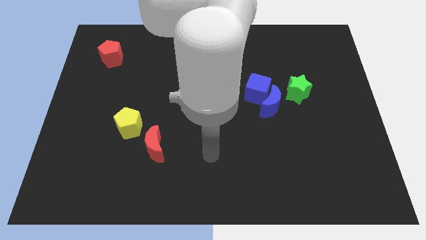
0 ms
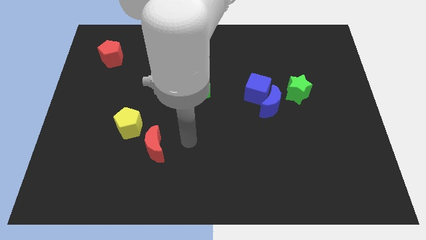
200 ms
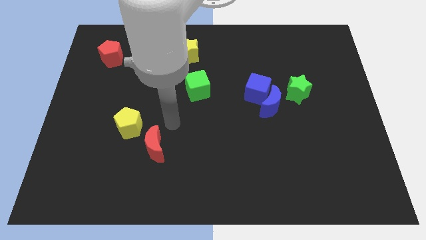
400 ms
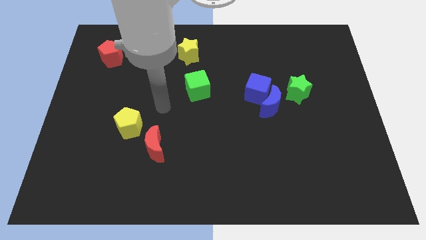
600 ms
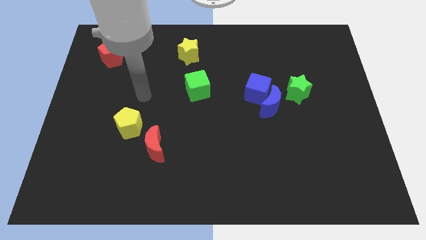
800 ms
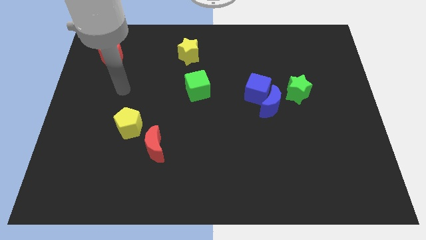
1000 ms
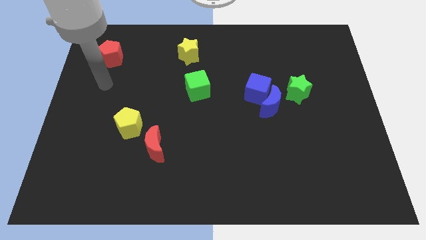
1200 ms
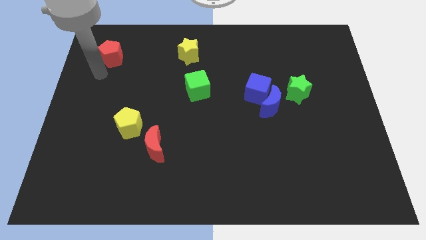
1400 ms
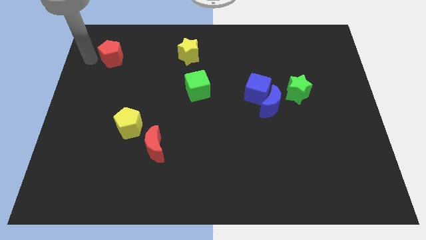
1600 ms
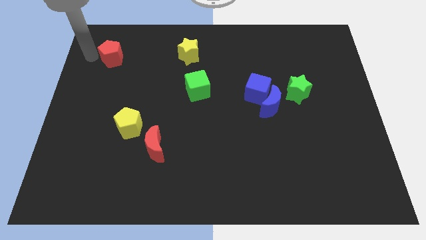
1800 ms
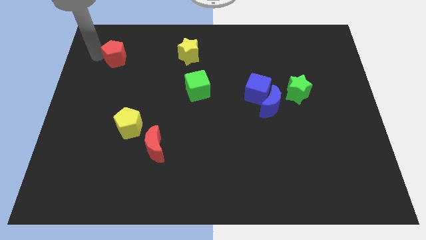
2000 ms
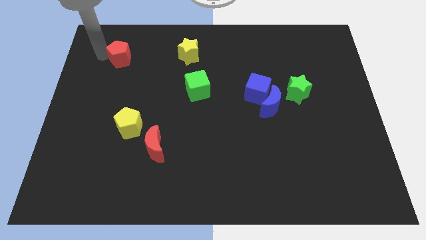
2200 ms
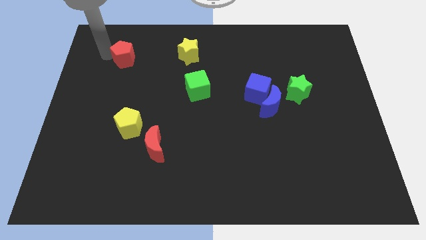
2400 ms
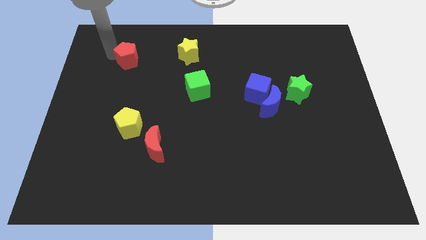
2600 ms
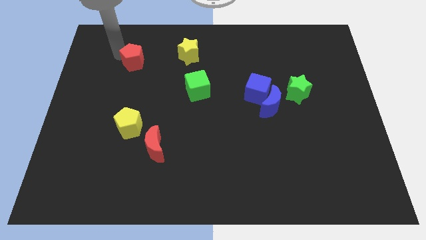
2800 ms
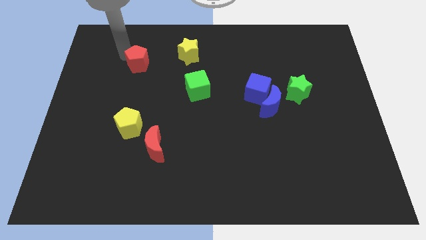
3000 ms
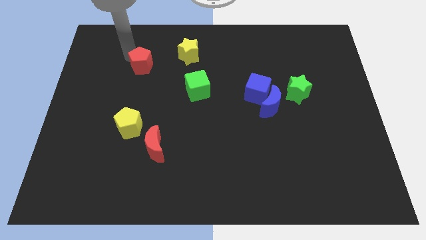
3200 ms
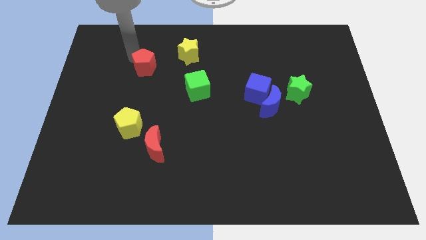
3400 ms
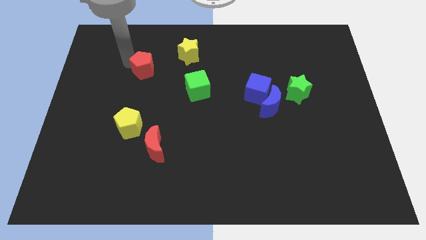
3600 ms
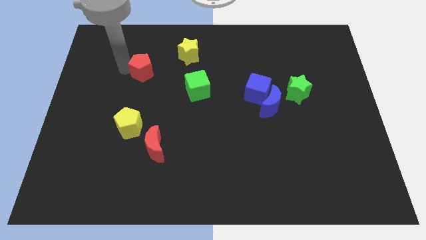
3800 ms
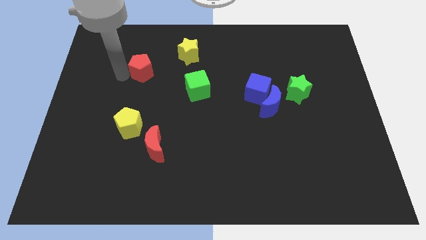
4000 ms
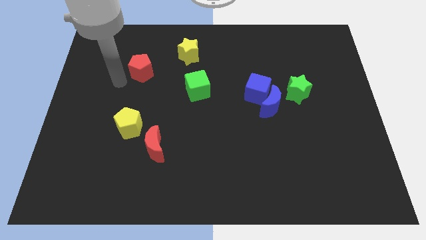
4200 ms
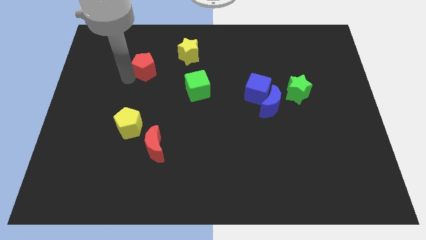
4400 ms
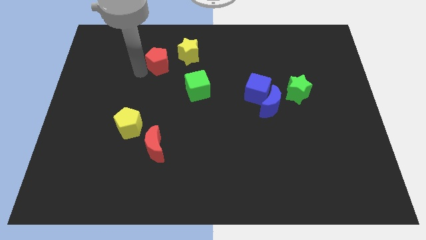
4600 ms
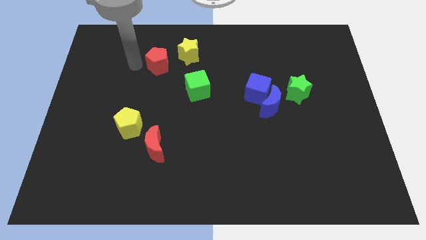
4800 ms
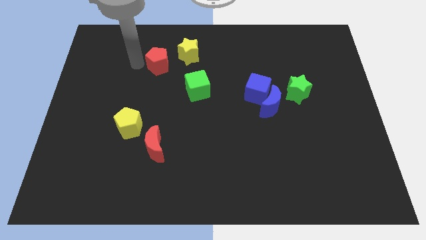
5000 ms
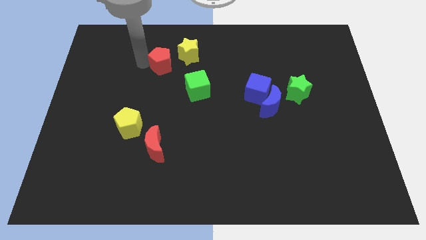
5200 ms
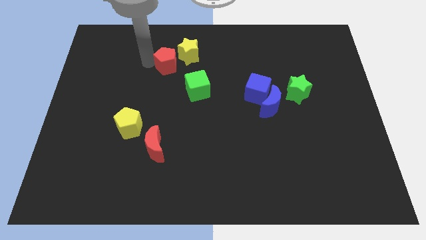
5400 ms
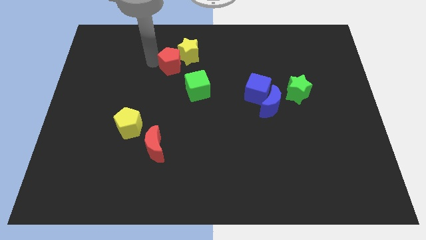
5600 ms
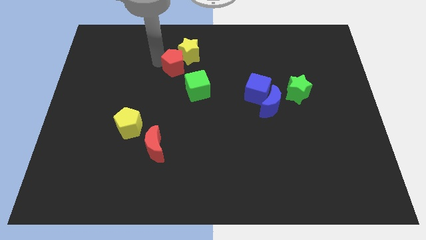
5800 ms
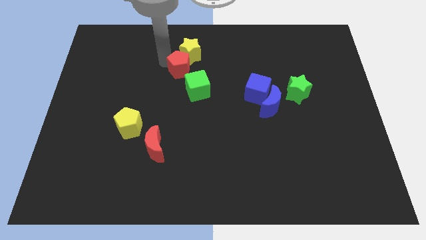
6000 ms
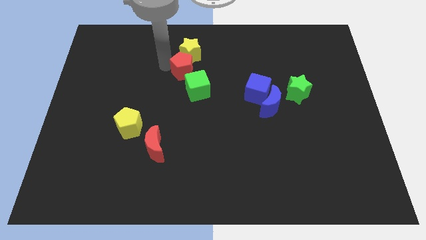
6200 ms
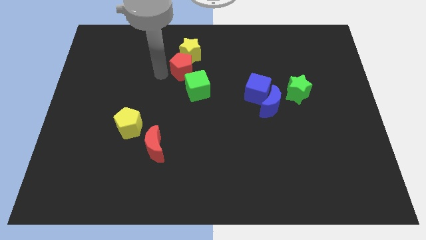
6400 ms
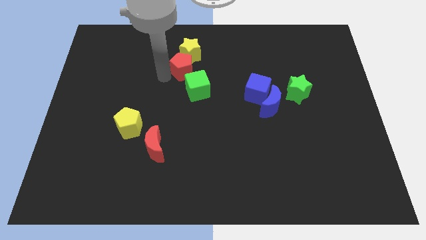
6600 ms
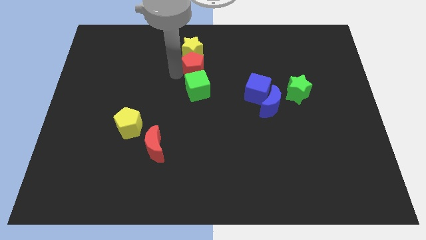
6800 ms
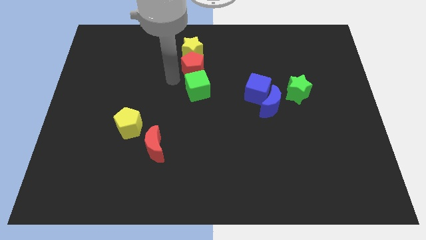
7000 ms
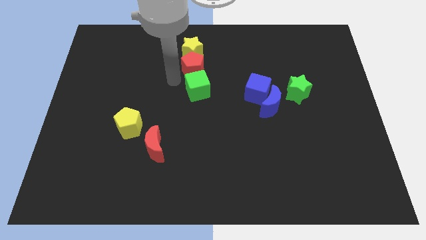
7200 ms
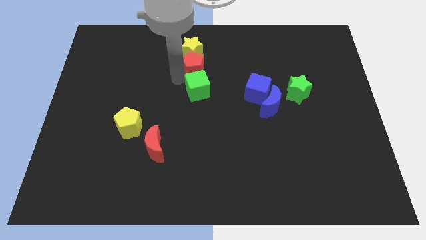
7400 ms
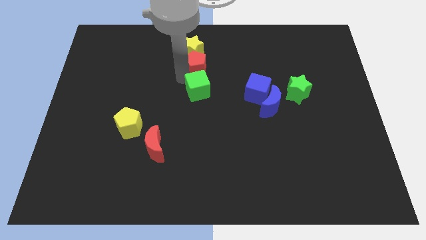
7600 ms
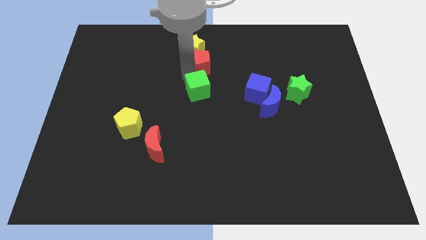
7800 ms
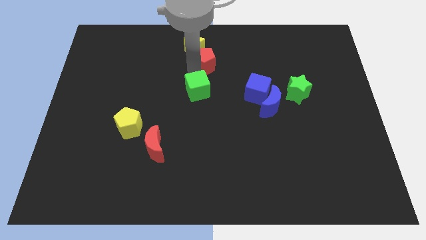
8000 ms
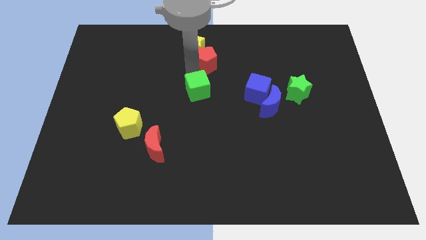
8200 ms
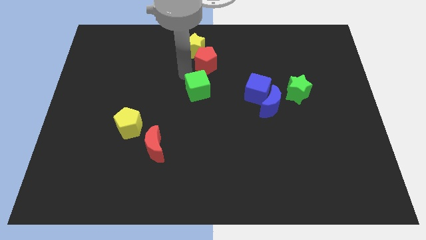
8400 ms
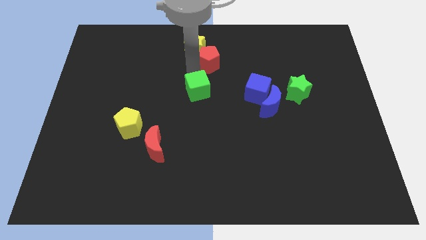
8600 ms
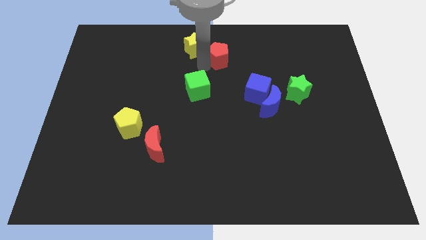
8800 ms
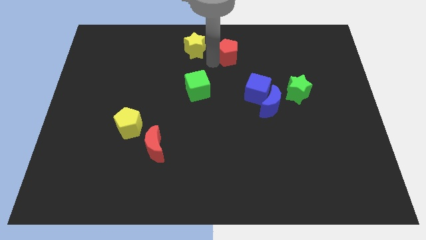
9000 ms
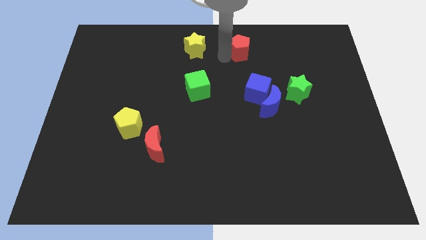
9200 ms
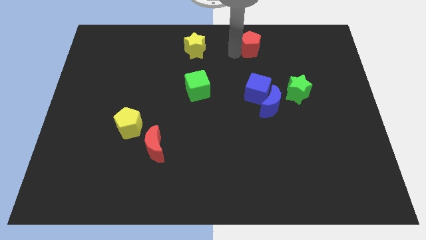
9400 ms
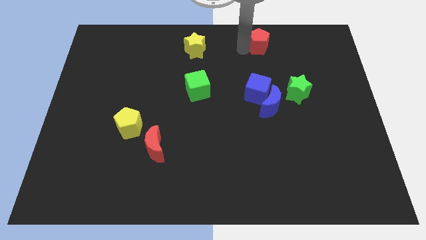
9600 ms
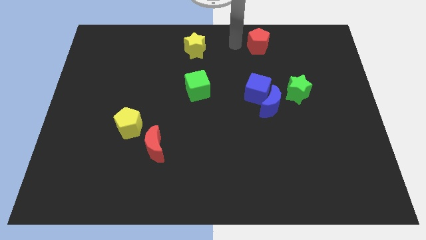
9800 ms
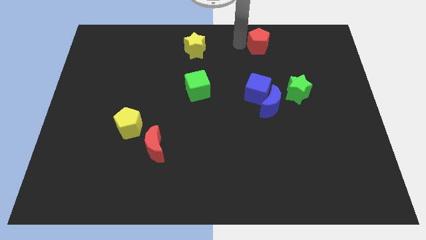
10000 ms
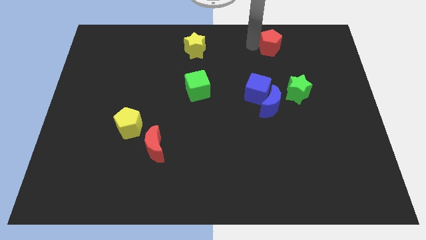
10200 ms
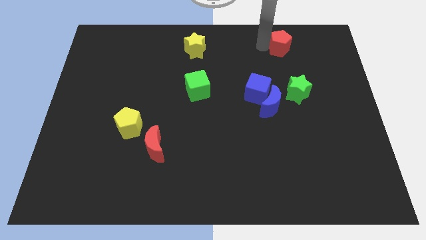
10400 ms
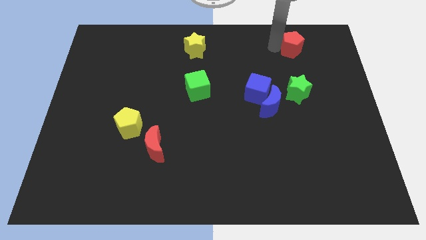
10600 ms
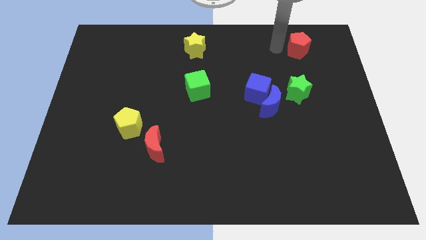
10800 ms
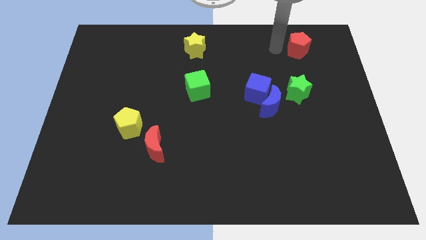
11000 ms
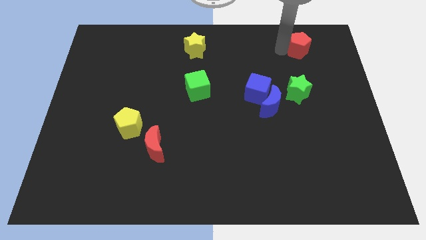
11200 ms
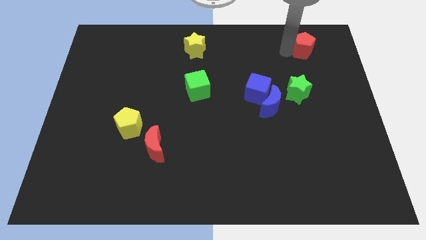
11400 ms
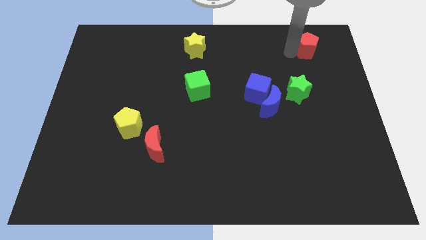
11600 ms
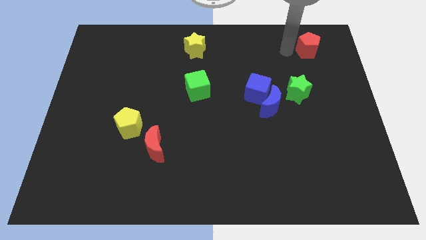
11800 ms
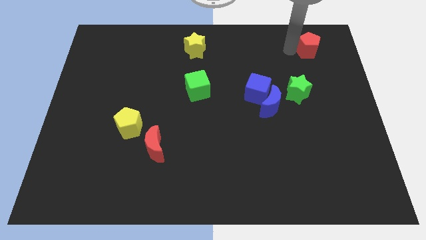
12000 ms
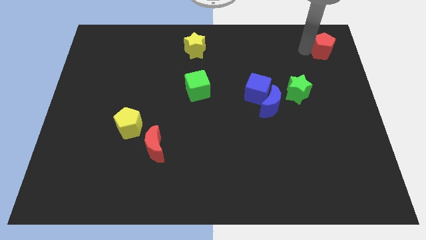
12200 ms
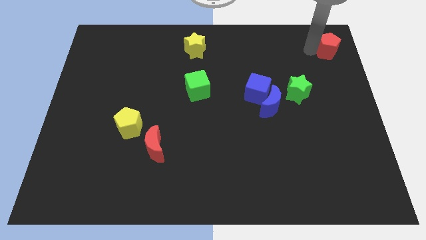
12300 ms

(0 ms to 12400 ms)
push the red pentagon to the upper right corner

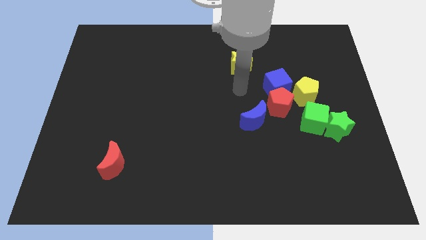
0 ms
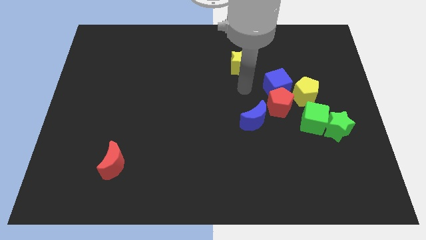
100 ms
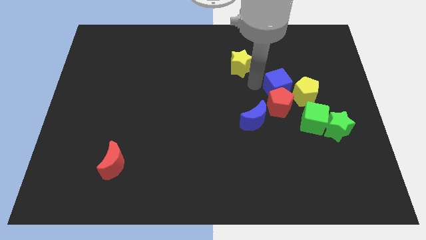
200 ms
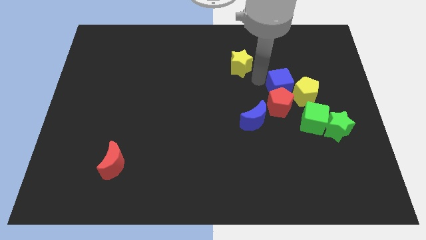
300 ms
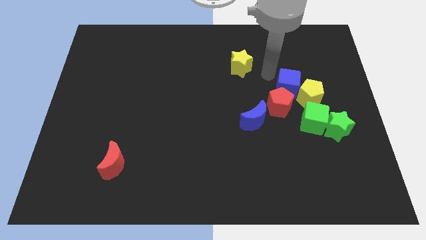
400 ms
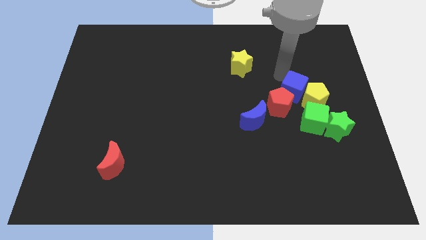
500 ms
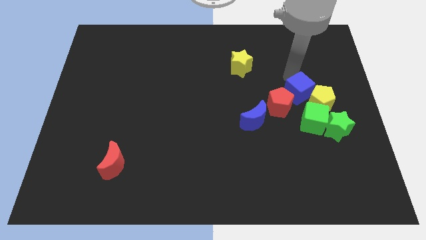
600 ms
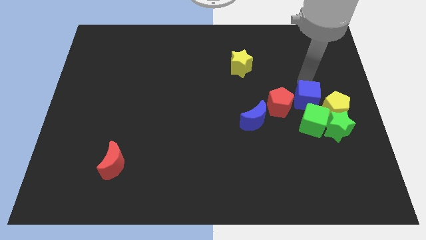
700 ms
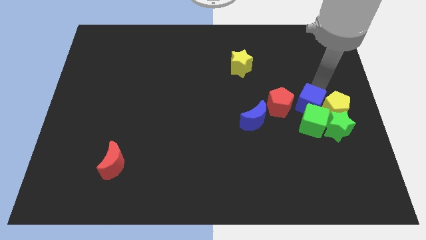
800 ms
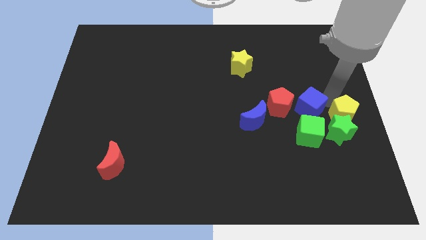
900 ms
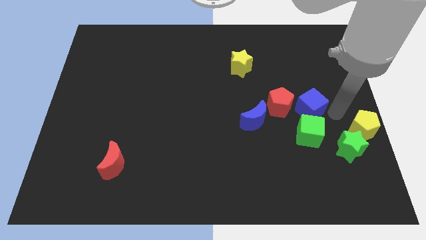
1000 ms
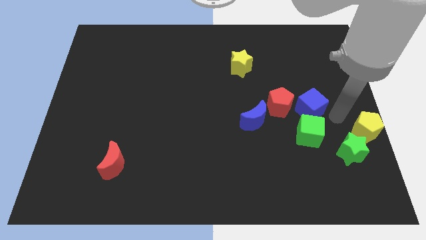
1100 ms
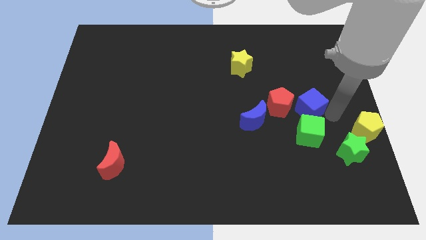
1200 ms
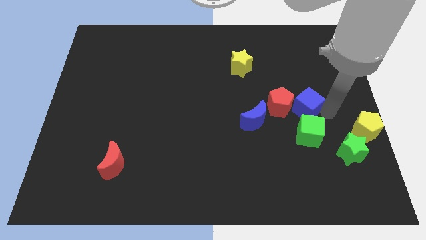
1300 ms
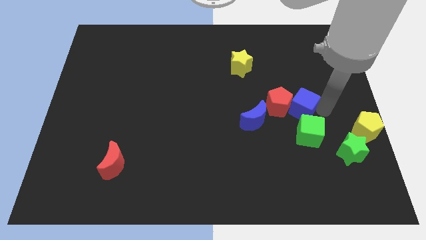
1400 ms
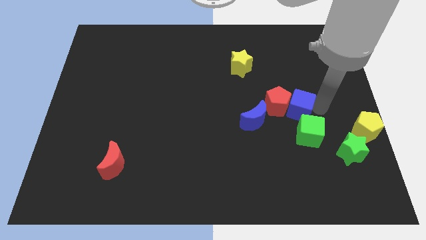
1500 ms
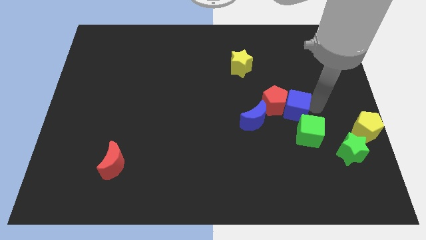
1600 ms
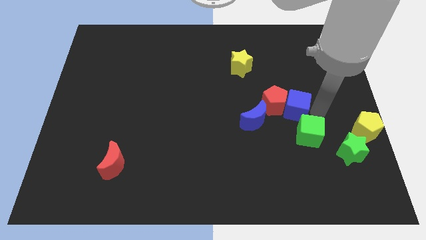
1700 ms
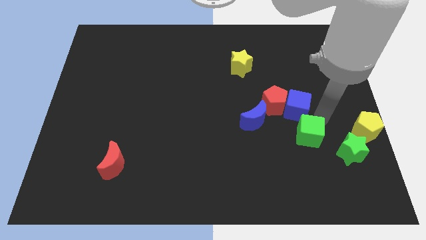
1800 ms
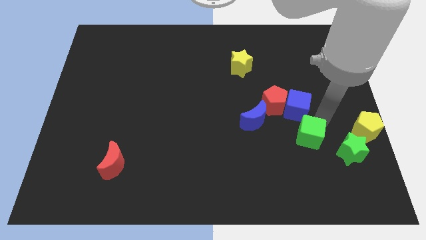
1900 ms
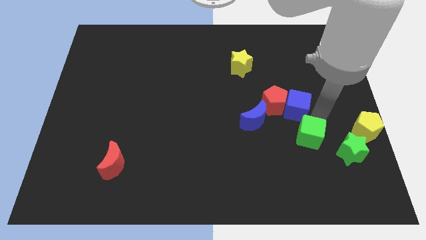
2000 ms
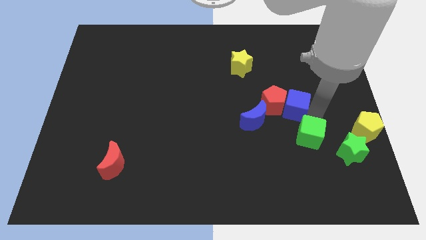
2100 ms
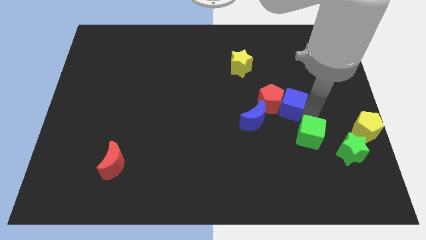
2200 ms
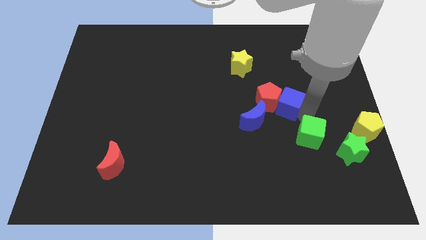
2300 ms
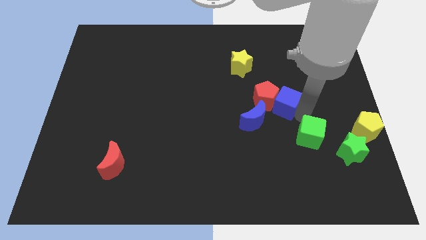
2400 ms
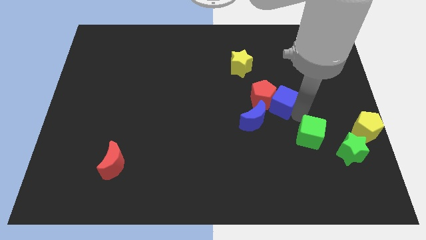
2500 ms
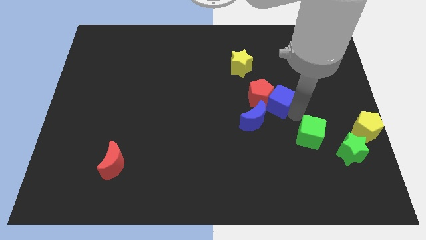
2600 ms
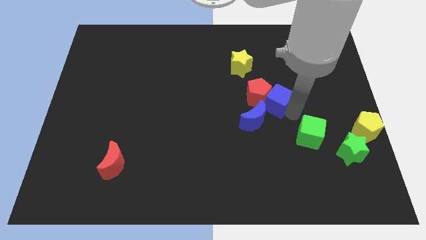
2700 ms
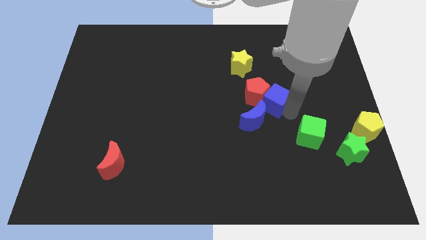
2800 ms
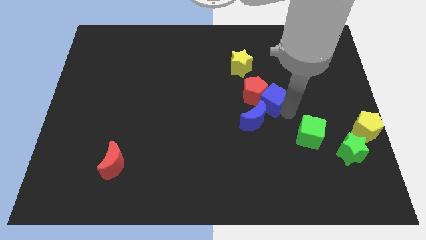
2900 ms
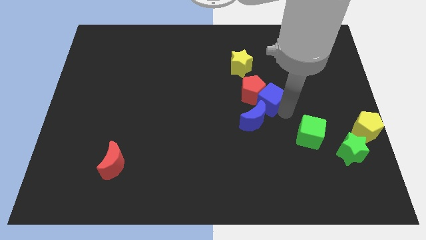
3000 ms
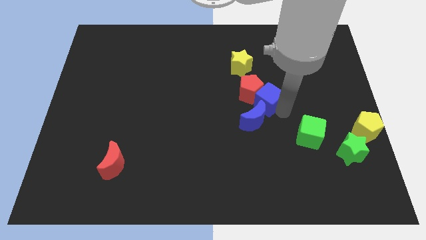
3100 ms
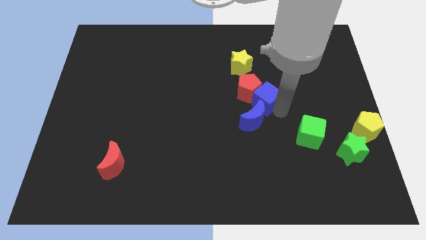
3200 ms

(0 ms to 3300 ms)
move the blue cube to the center
